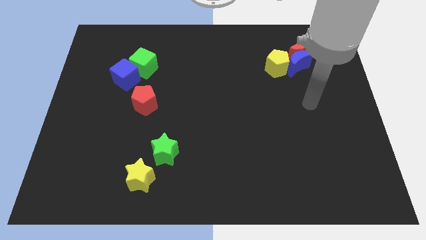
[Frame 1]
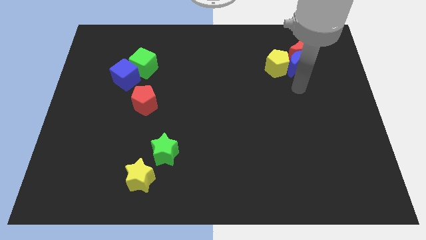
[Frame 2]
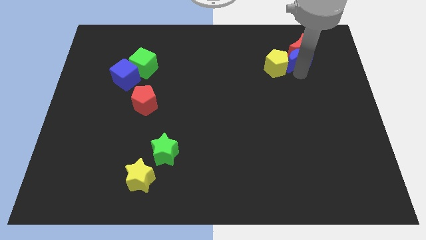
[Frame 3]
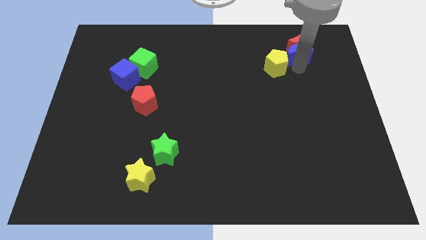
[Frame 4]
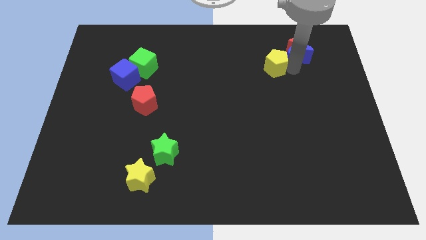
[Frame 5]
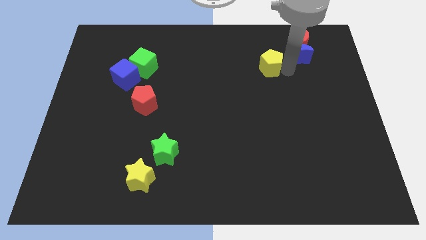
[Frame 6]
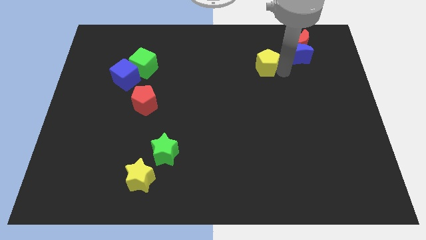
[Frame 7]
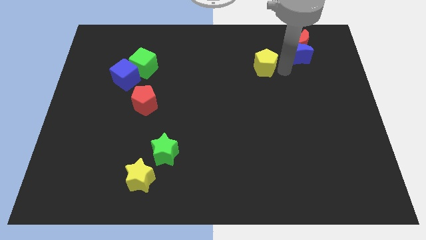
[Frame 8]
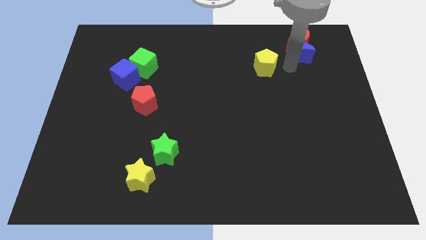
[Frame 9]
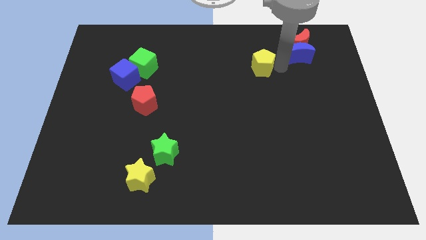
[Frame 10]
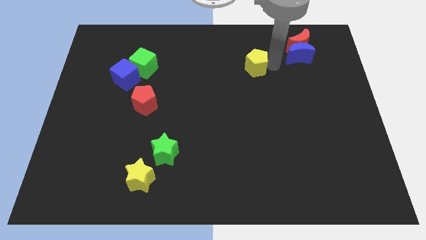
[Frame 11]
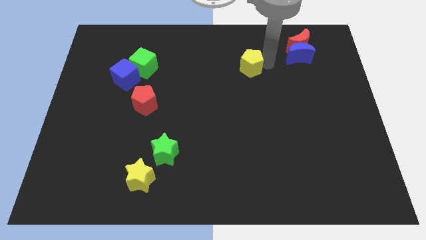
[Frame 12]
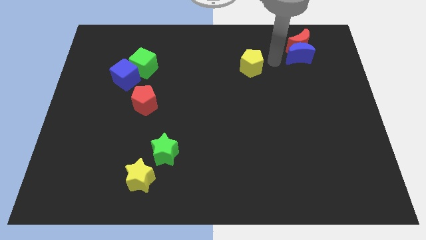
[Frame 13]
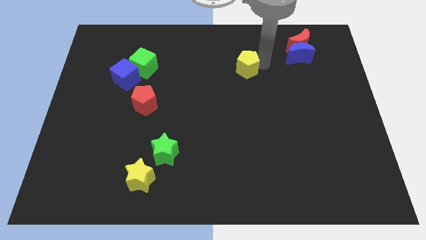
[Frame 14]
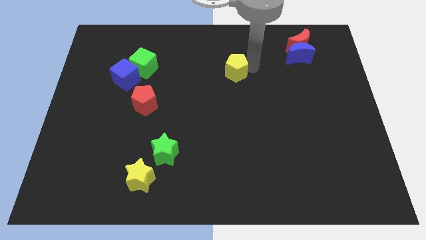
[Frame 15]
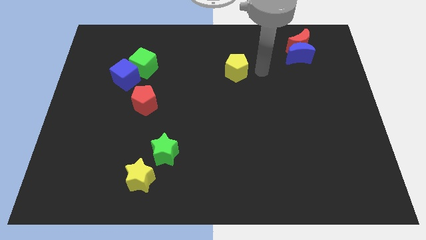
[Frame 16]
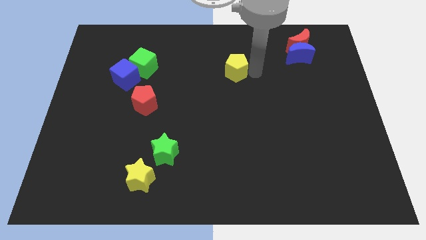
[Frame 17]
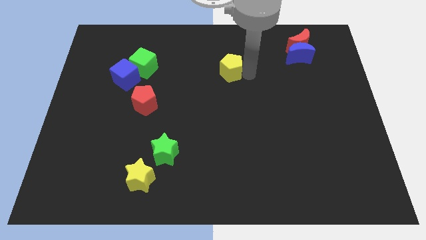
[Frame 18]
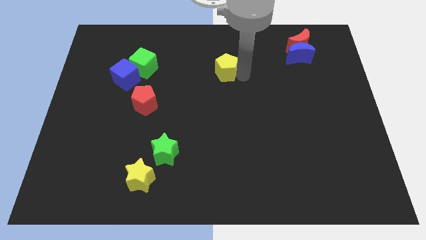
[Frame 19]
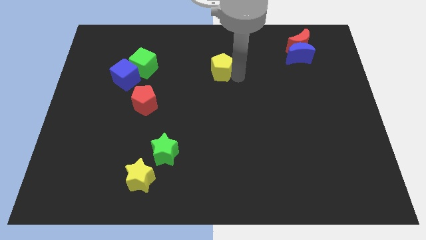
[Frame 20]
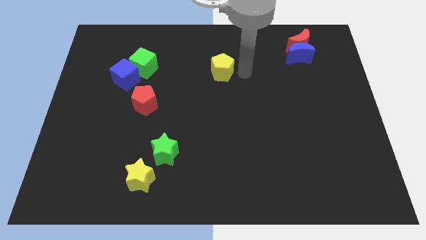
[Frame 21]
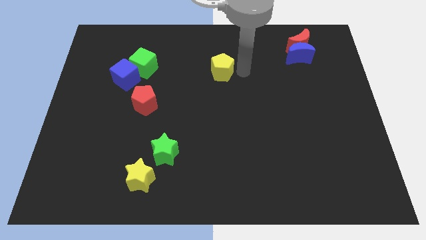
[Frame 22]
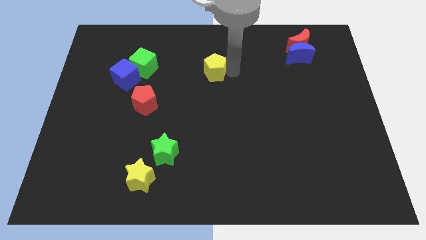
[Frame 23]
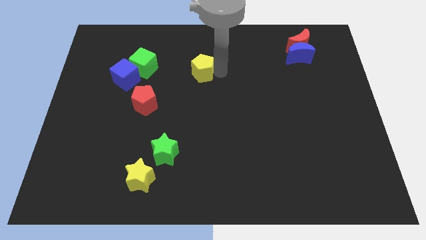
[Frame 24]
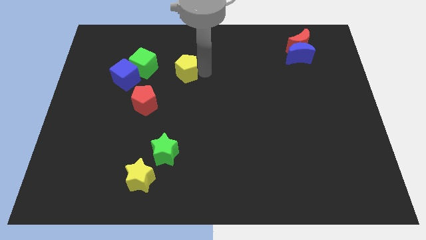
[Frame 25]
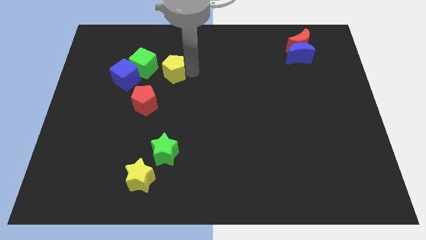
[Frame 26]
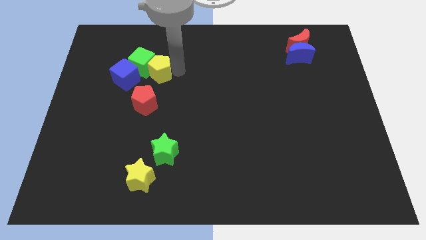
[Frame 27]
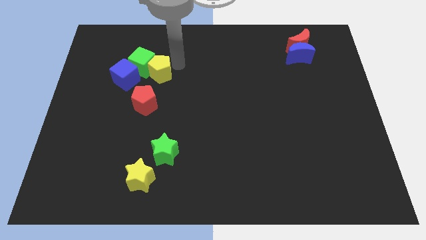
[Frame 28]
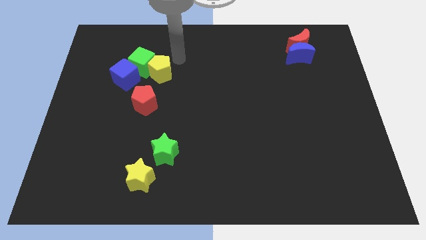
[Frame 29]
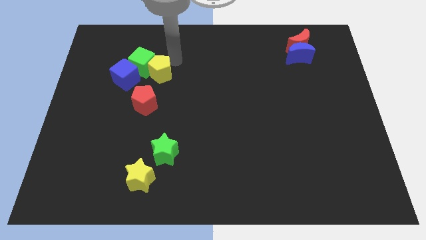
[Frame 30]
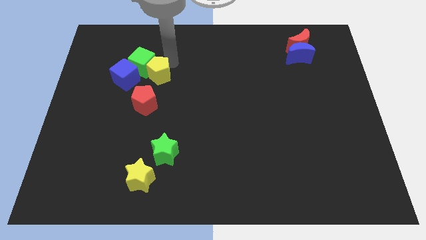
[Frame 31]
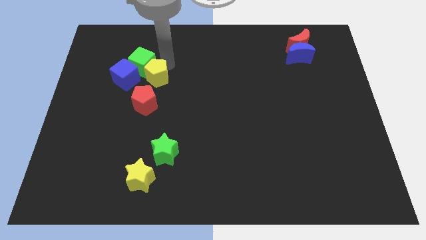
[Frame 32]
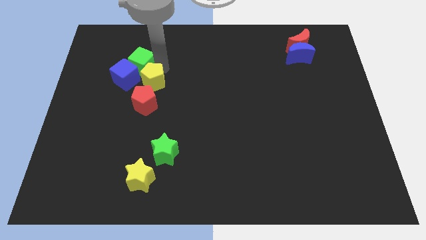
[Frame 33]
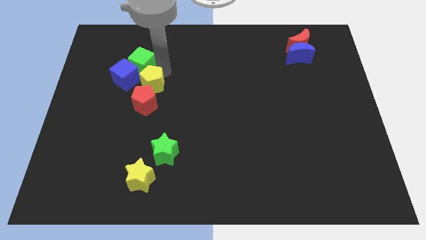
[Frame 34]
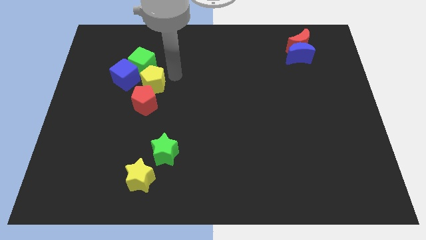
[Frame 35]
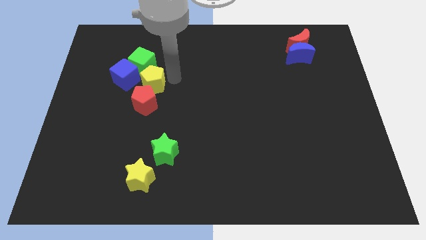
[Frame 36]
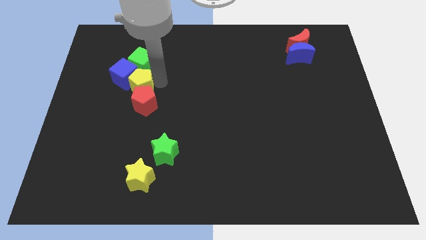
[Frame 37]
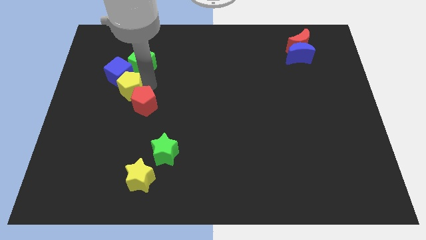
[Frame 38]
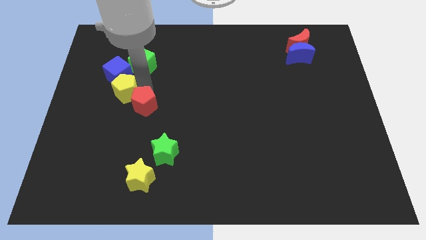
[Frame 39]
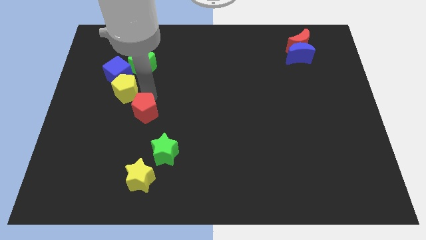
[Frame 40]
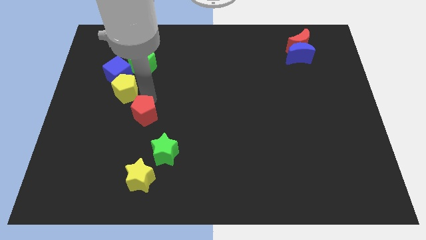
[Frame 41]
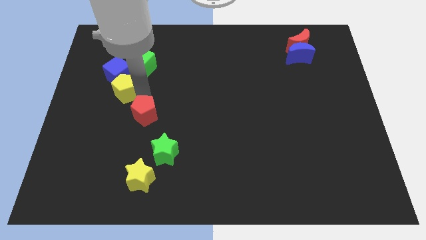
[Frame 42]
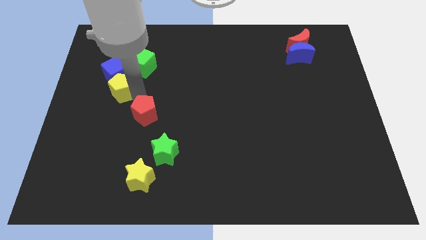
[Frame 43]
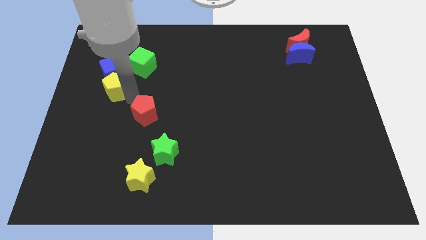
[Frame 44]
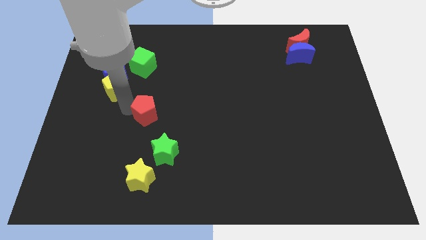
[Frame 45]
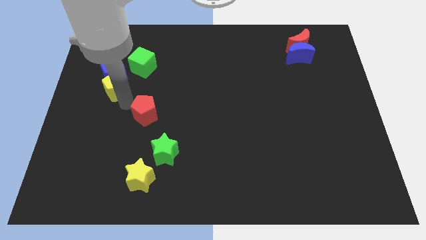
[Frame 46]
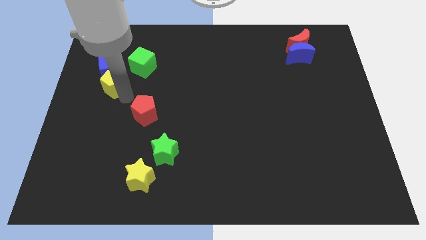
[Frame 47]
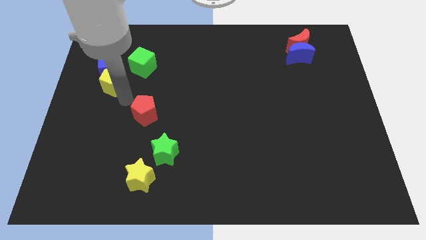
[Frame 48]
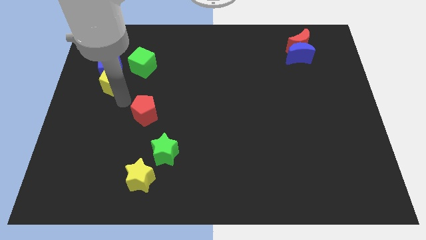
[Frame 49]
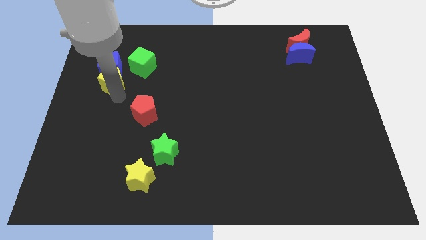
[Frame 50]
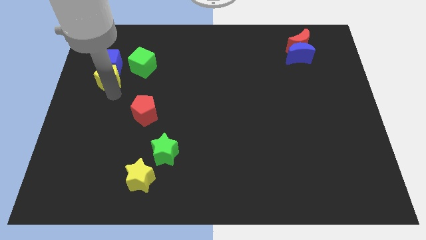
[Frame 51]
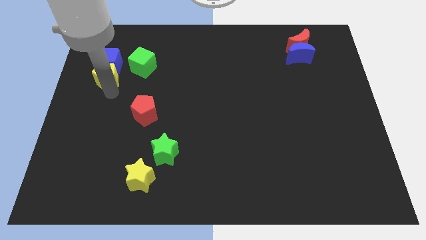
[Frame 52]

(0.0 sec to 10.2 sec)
slide the yellow pentagon just left of the green cube
